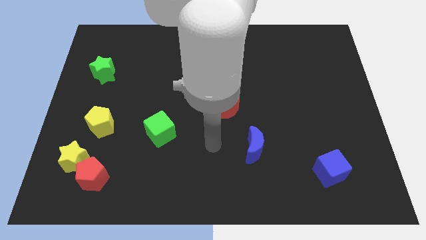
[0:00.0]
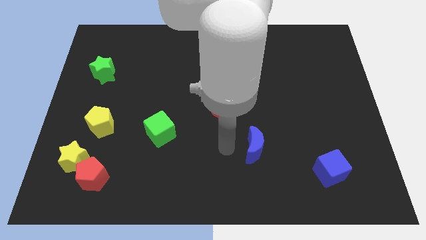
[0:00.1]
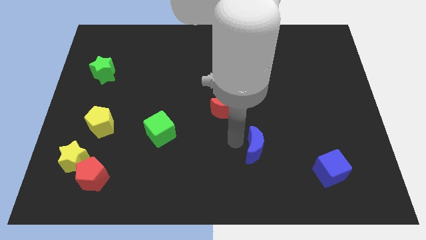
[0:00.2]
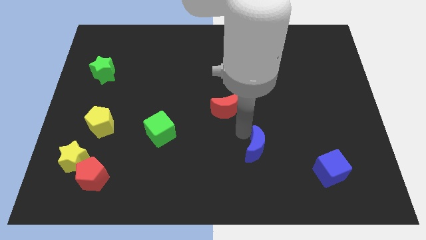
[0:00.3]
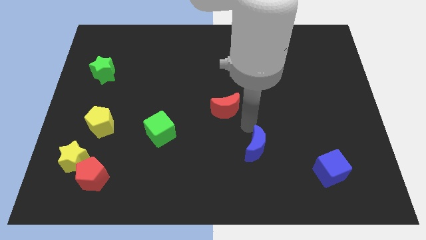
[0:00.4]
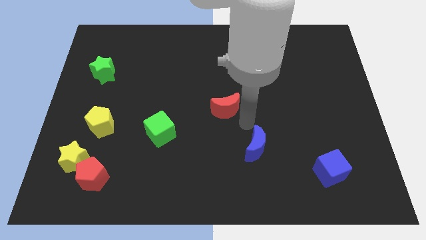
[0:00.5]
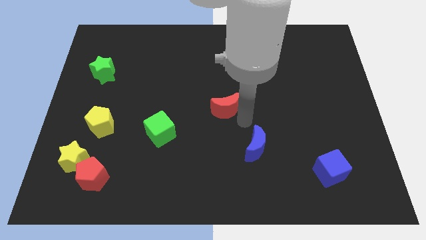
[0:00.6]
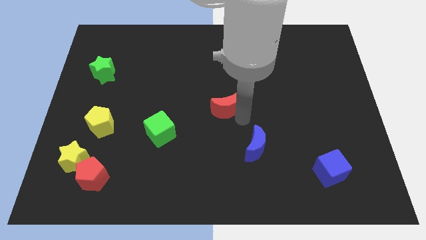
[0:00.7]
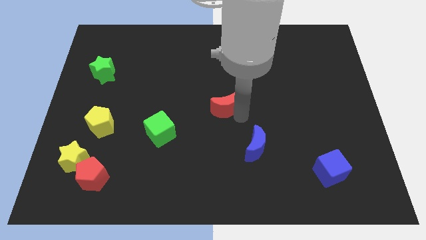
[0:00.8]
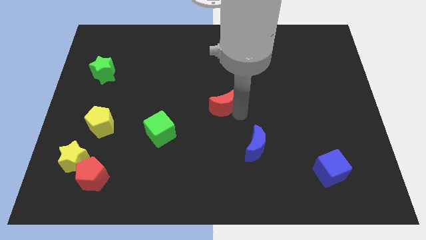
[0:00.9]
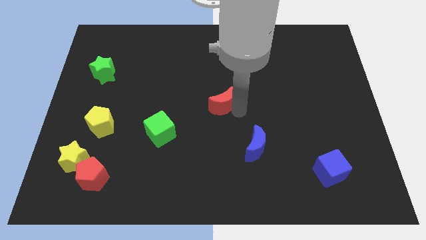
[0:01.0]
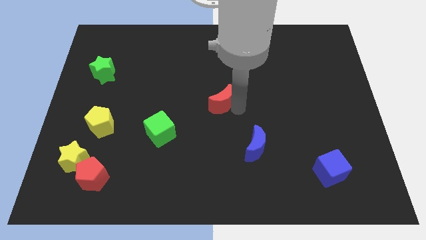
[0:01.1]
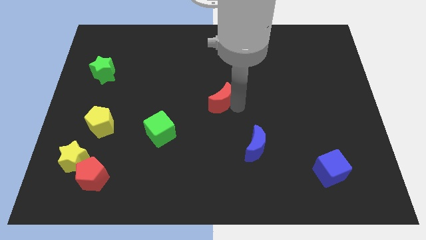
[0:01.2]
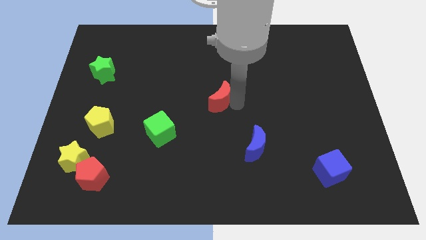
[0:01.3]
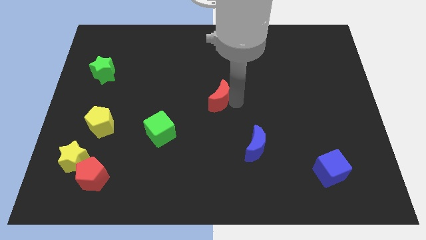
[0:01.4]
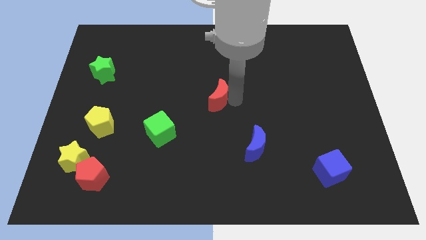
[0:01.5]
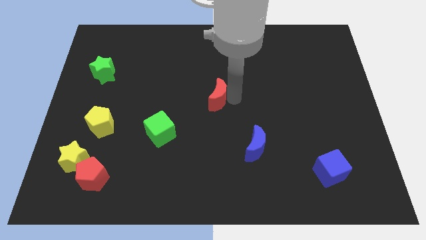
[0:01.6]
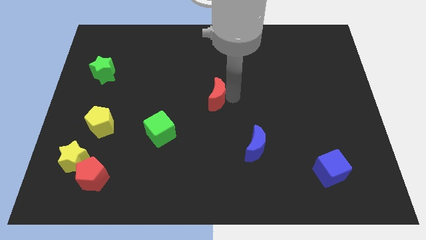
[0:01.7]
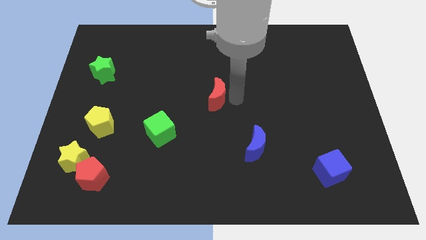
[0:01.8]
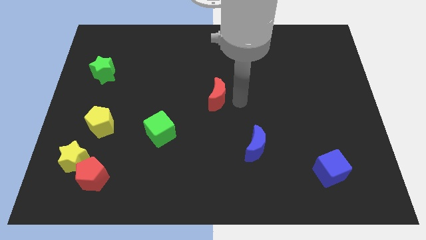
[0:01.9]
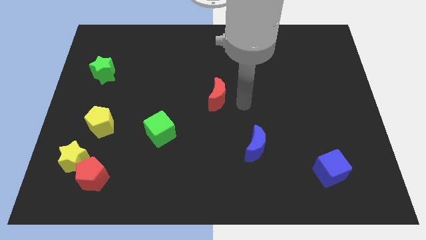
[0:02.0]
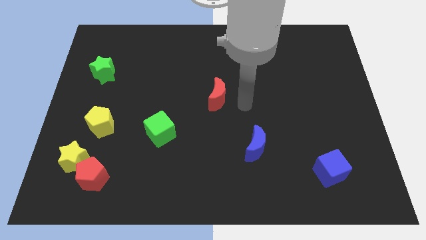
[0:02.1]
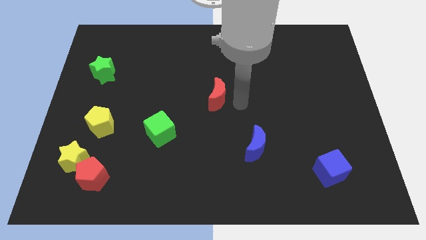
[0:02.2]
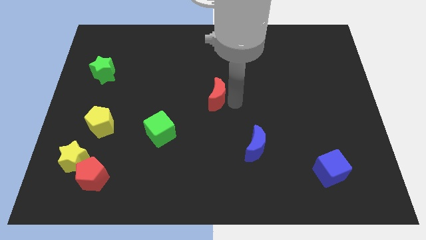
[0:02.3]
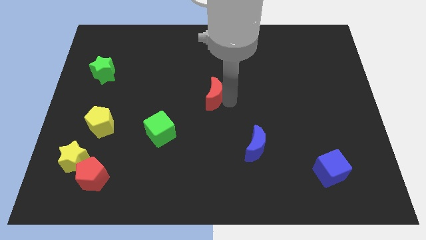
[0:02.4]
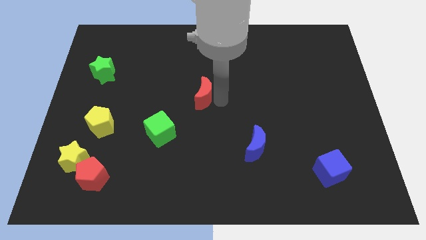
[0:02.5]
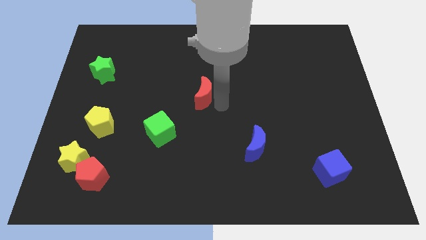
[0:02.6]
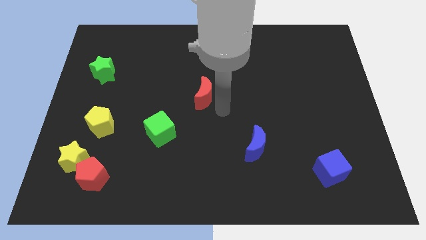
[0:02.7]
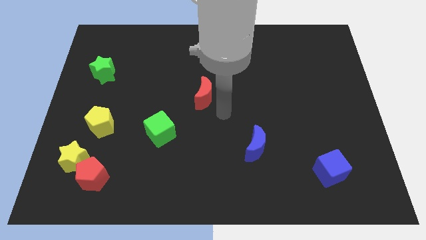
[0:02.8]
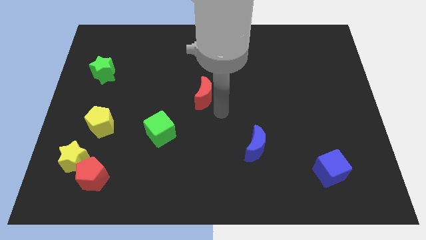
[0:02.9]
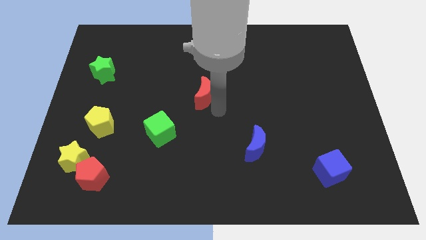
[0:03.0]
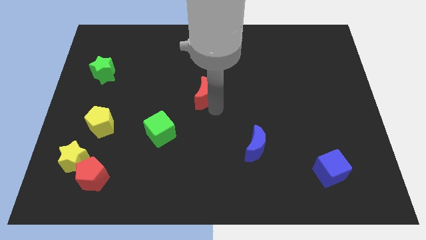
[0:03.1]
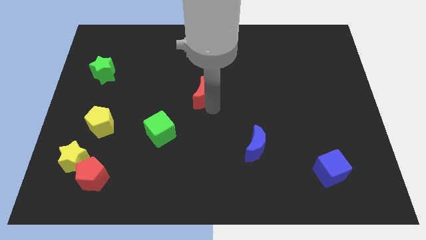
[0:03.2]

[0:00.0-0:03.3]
push the red moon somewhat up and left

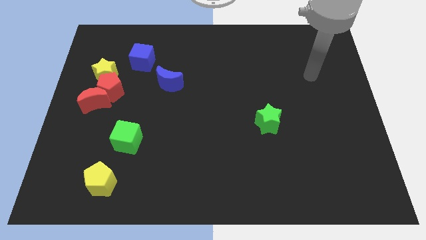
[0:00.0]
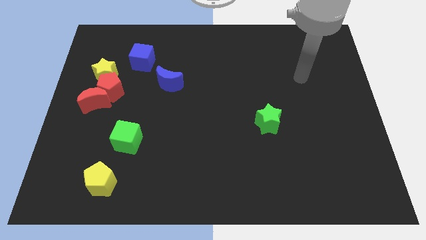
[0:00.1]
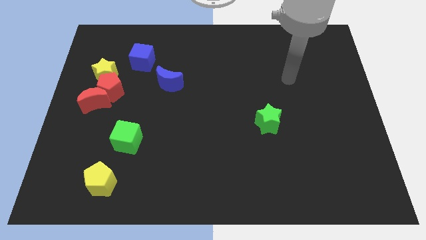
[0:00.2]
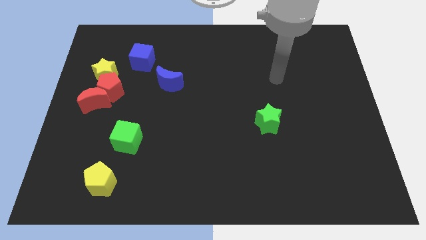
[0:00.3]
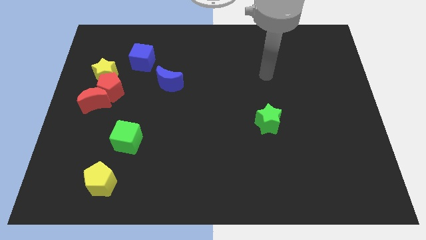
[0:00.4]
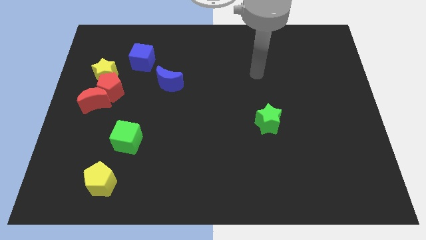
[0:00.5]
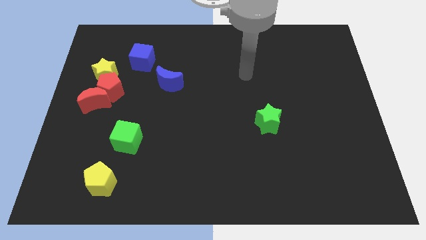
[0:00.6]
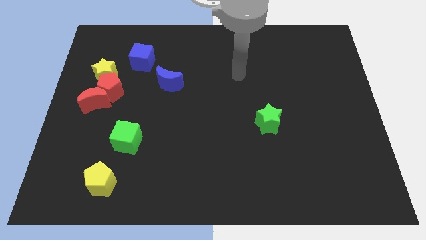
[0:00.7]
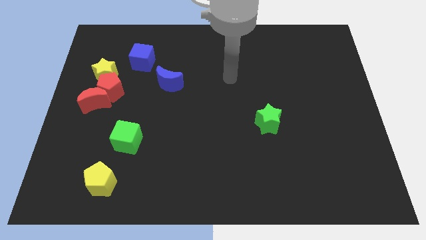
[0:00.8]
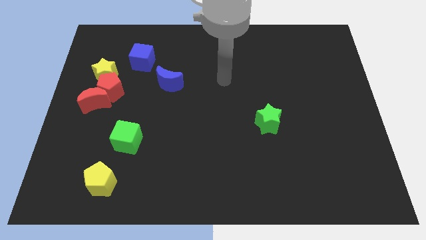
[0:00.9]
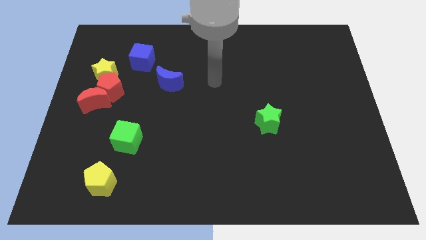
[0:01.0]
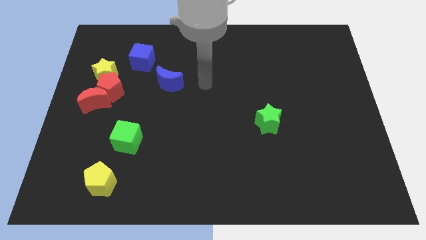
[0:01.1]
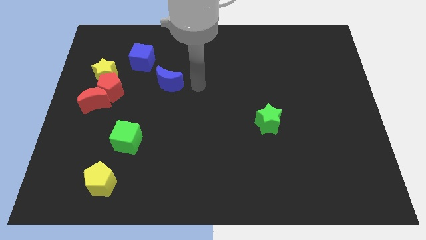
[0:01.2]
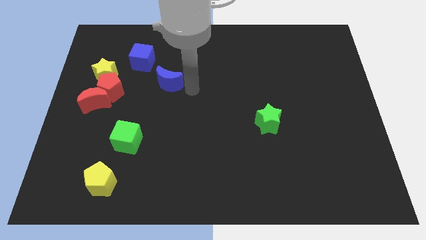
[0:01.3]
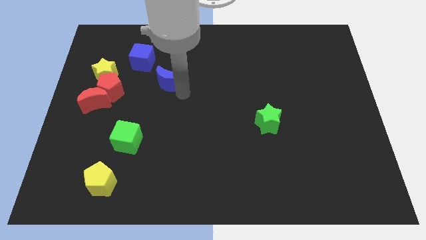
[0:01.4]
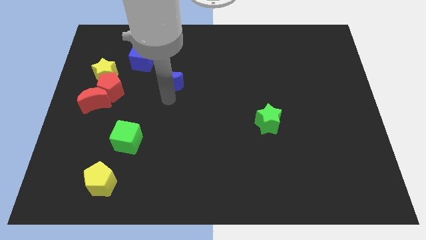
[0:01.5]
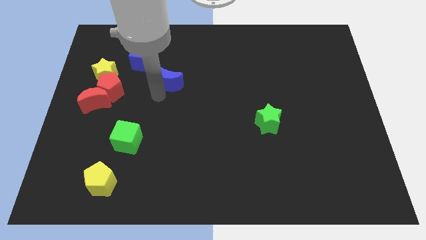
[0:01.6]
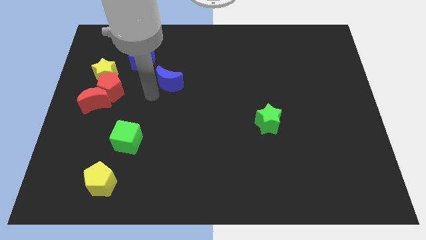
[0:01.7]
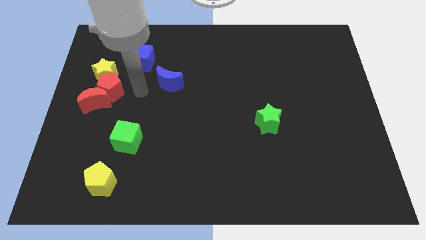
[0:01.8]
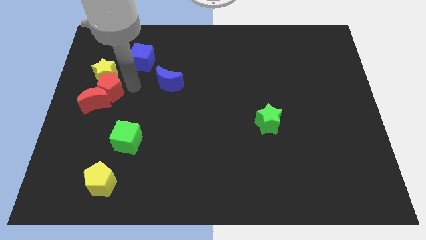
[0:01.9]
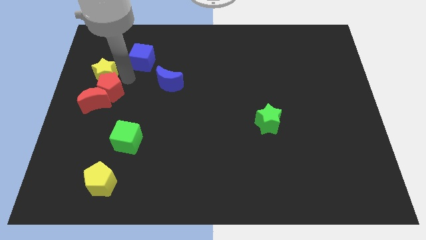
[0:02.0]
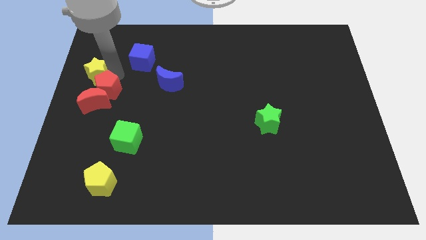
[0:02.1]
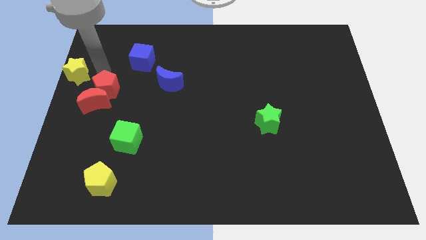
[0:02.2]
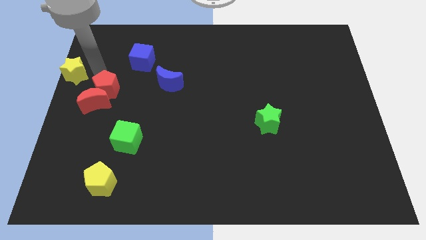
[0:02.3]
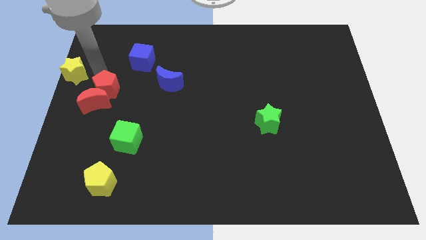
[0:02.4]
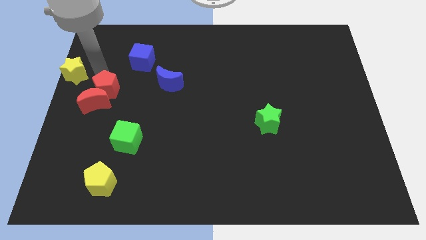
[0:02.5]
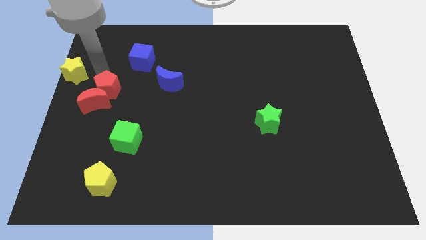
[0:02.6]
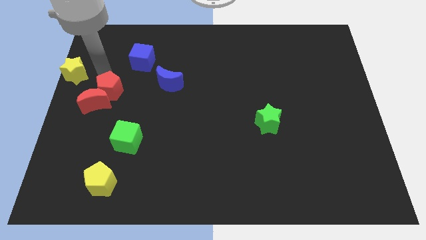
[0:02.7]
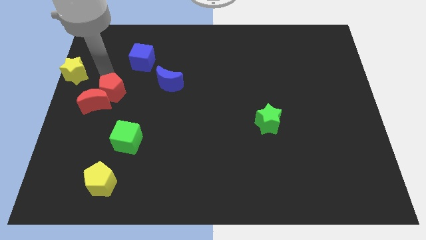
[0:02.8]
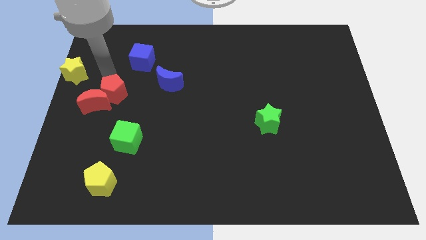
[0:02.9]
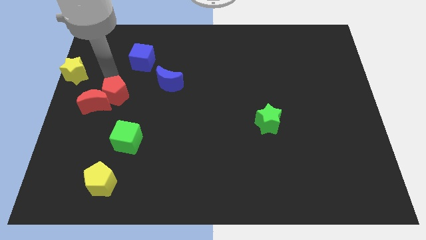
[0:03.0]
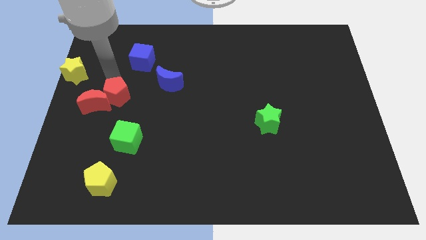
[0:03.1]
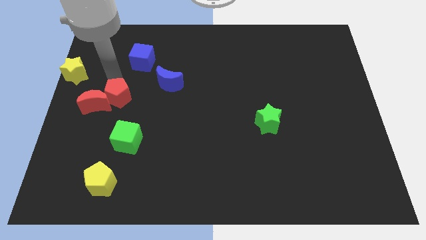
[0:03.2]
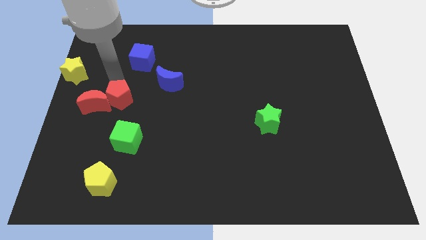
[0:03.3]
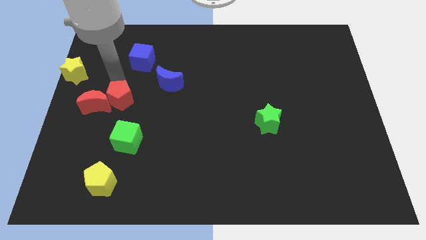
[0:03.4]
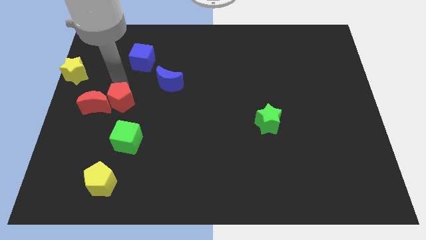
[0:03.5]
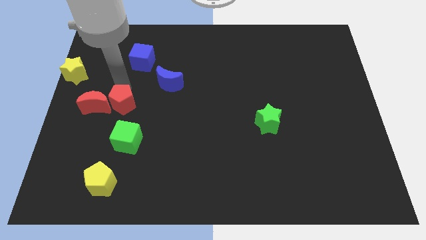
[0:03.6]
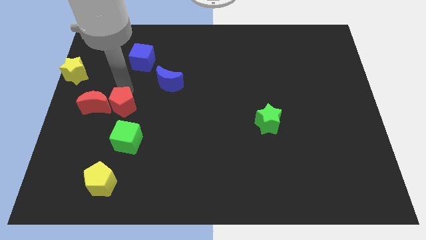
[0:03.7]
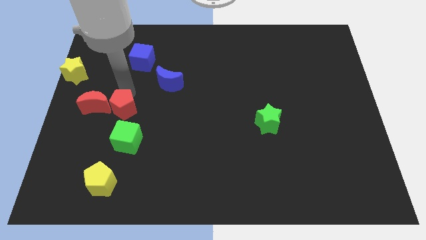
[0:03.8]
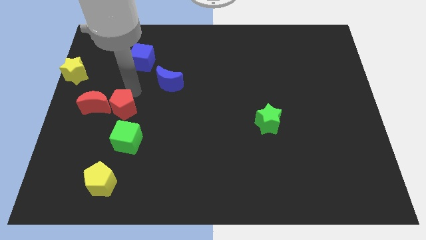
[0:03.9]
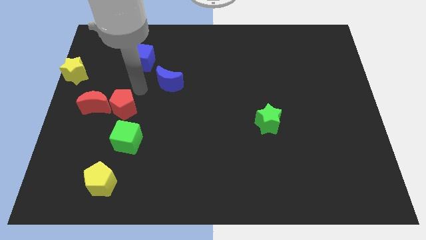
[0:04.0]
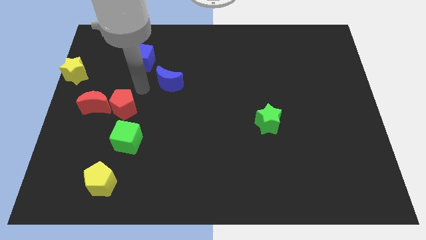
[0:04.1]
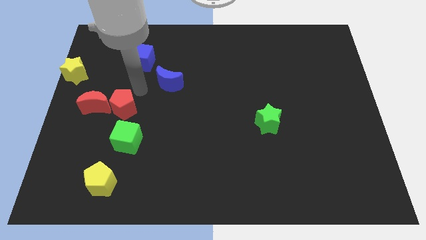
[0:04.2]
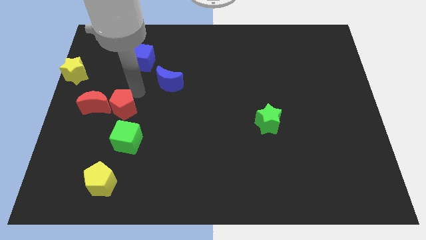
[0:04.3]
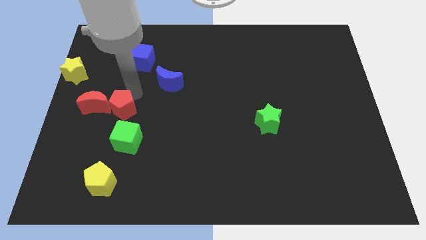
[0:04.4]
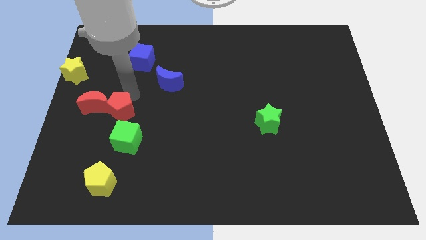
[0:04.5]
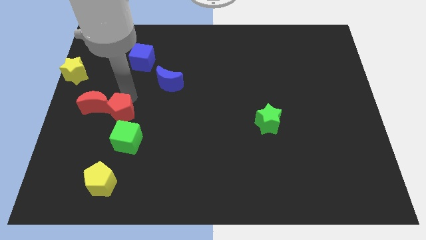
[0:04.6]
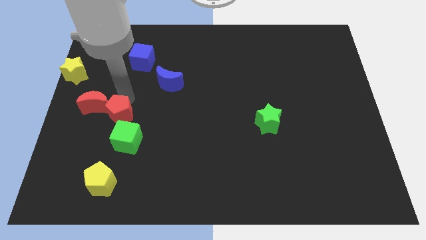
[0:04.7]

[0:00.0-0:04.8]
slightly move the red pentagon downwards

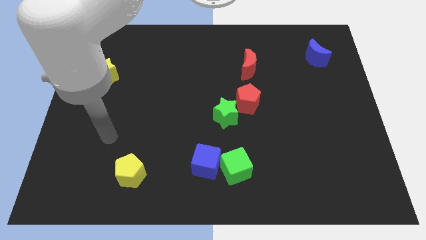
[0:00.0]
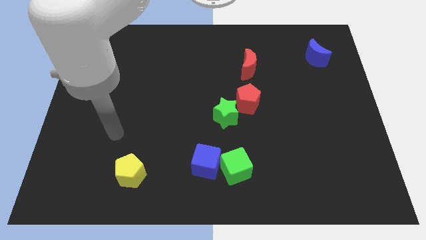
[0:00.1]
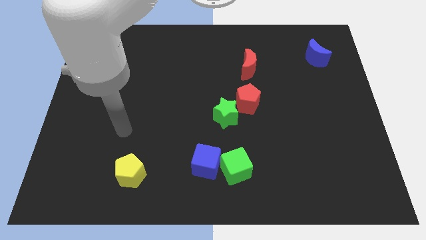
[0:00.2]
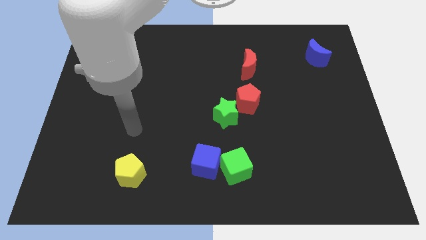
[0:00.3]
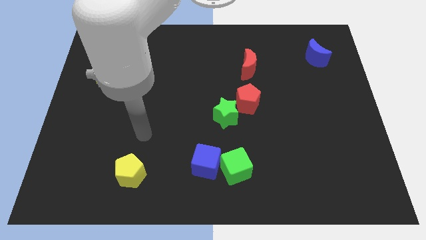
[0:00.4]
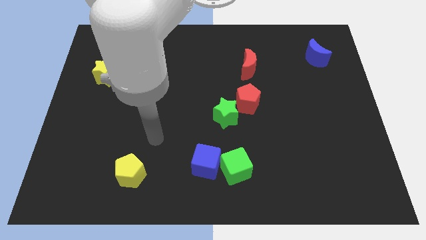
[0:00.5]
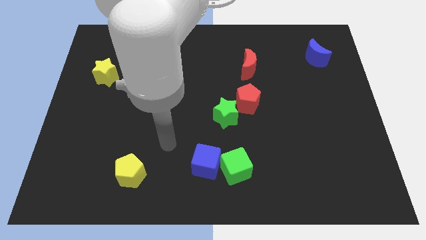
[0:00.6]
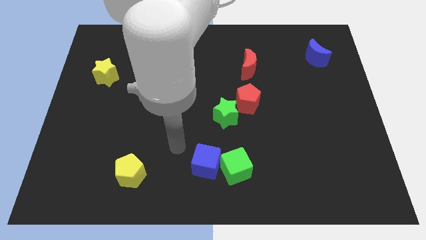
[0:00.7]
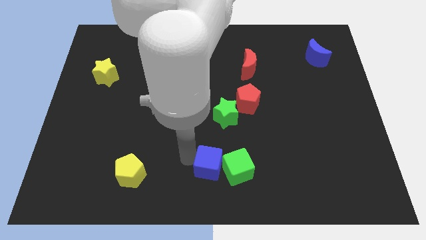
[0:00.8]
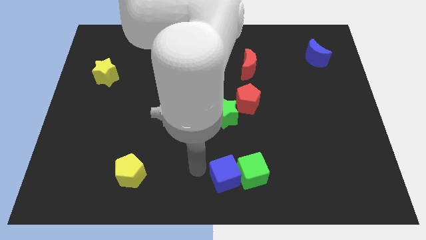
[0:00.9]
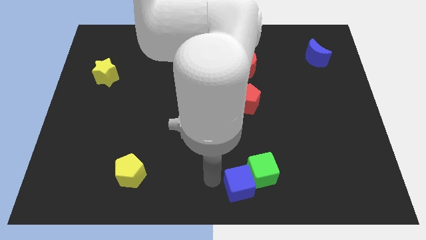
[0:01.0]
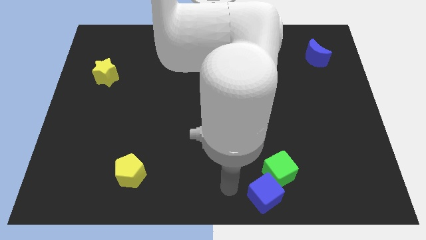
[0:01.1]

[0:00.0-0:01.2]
push the green cube right a little bit
